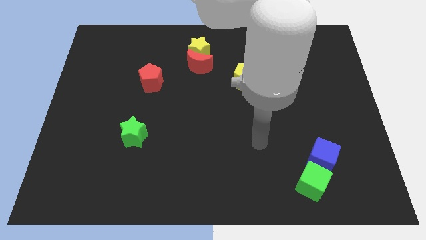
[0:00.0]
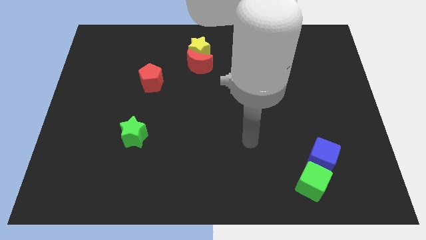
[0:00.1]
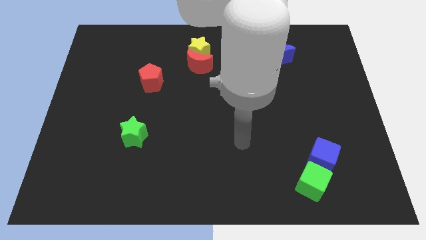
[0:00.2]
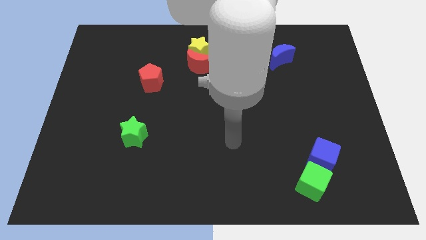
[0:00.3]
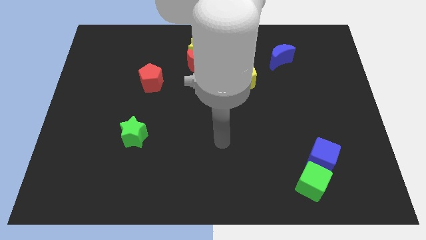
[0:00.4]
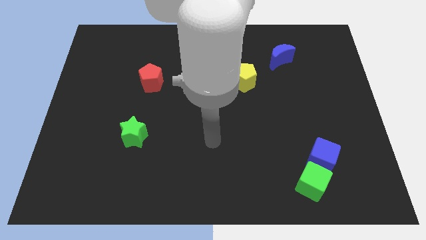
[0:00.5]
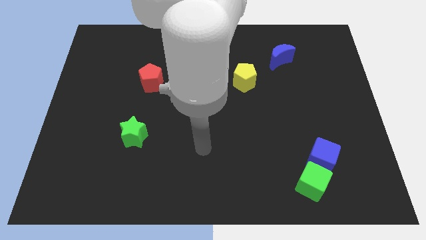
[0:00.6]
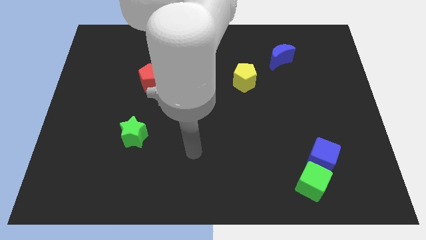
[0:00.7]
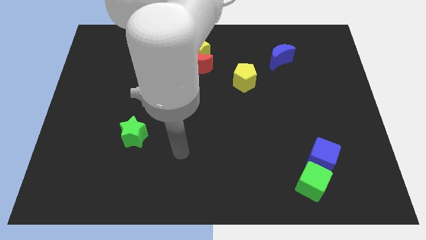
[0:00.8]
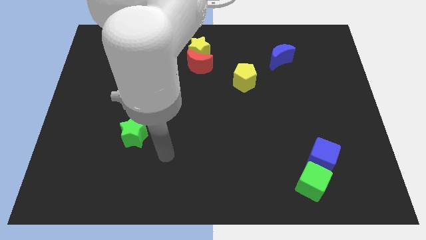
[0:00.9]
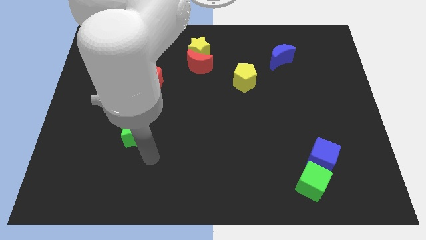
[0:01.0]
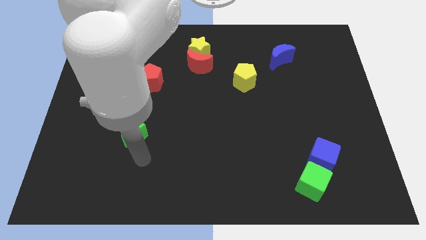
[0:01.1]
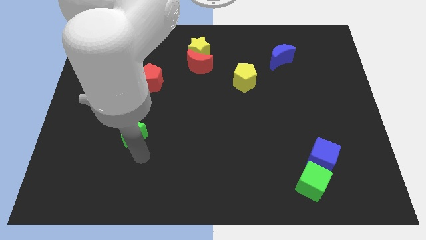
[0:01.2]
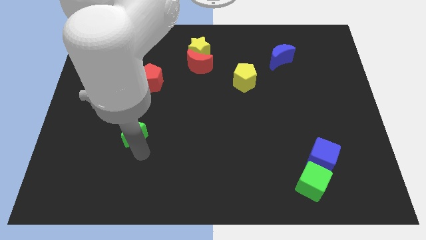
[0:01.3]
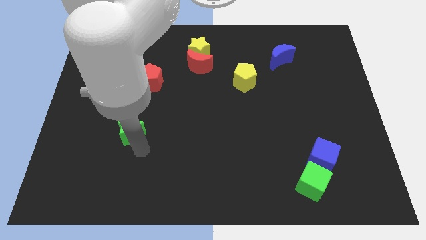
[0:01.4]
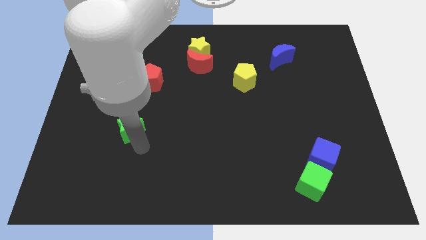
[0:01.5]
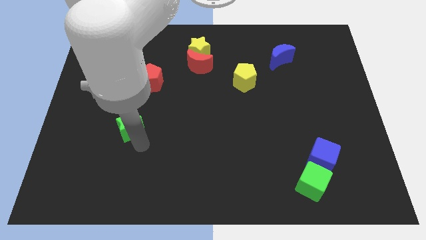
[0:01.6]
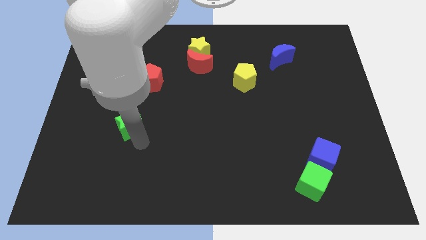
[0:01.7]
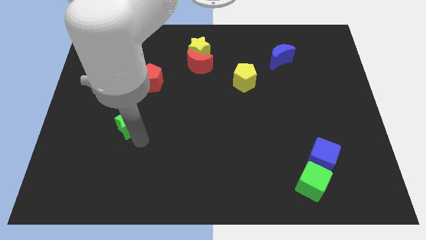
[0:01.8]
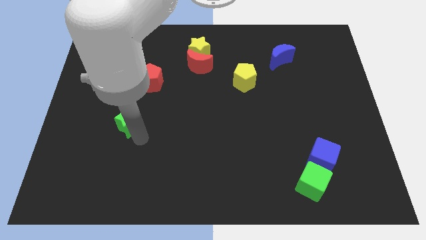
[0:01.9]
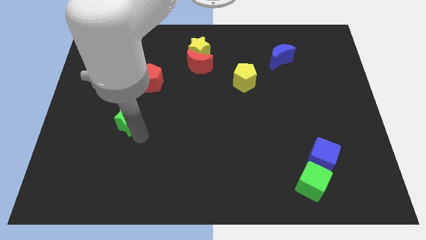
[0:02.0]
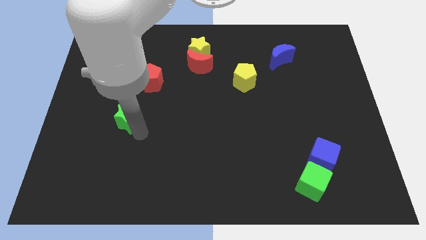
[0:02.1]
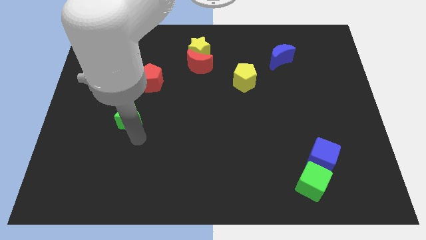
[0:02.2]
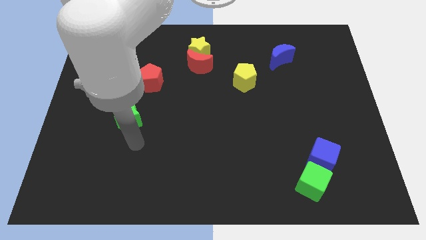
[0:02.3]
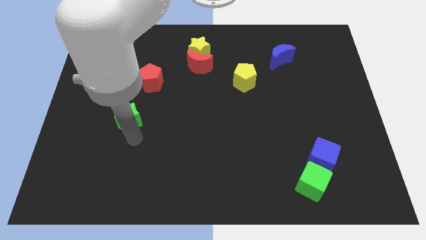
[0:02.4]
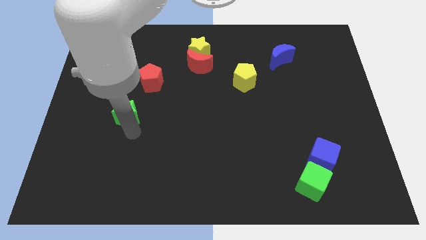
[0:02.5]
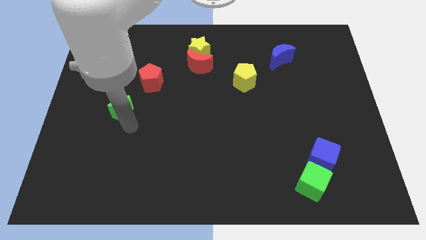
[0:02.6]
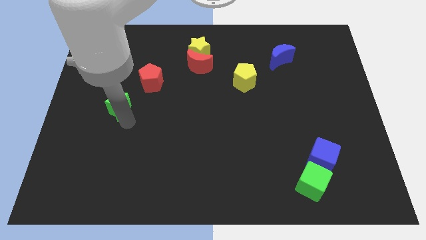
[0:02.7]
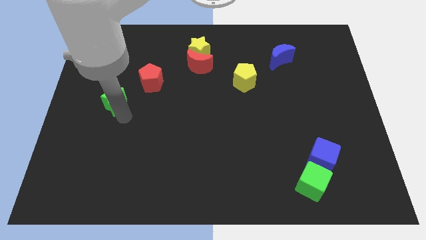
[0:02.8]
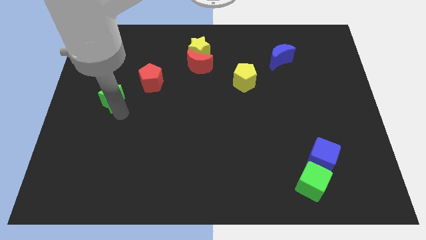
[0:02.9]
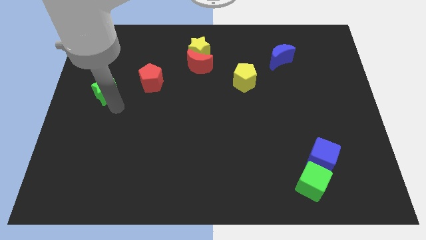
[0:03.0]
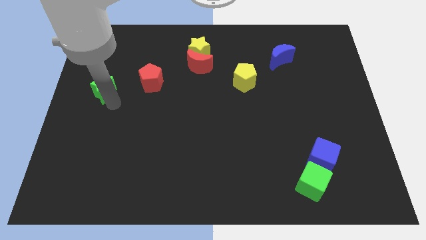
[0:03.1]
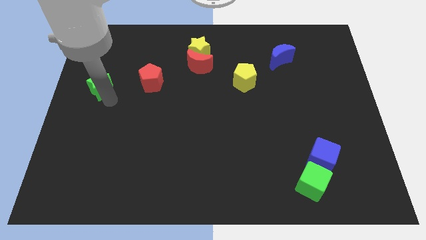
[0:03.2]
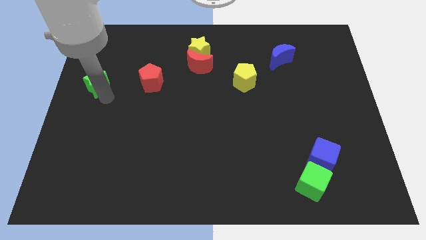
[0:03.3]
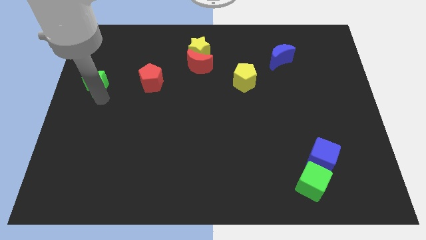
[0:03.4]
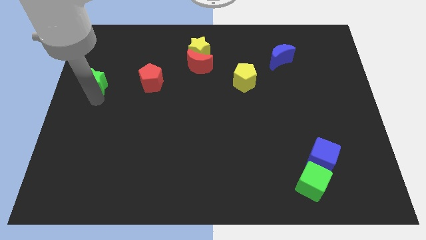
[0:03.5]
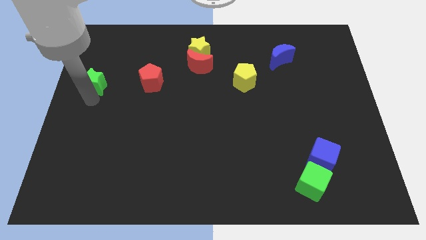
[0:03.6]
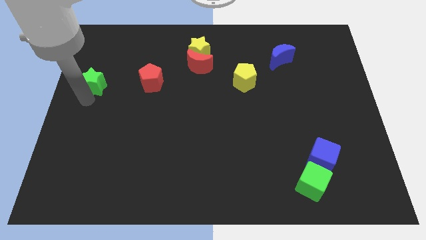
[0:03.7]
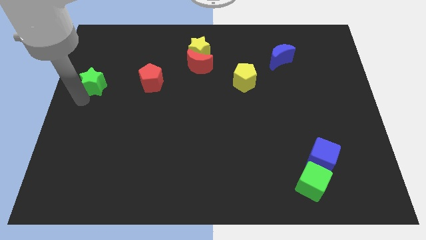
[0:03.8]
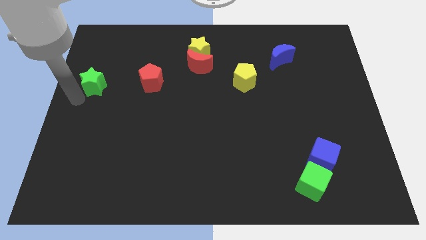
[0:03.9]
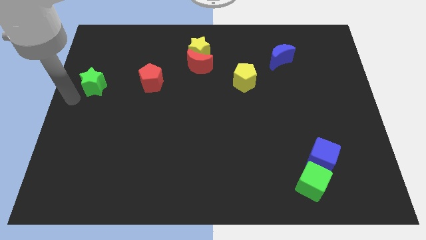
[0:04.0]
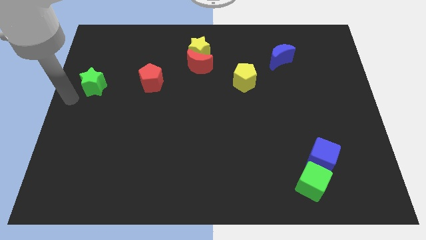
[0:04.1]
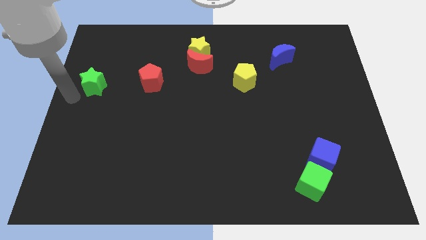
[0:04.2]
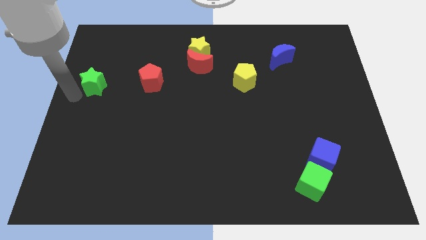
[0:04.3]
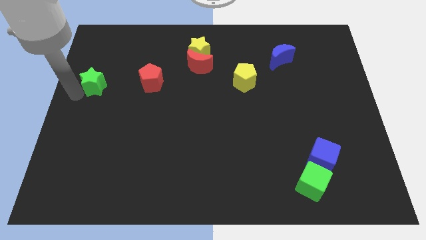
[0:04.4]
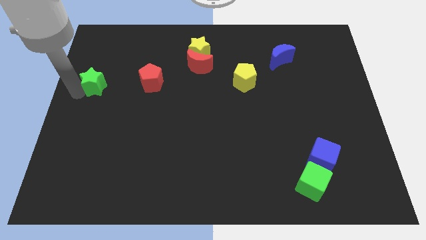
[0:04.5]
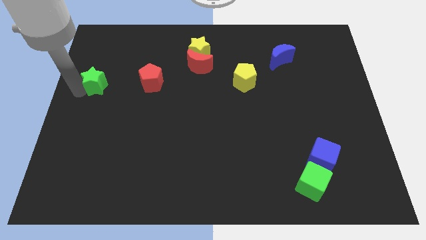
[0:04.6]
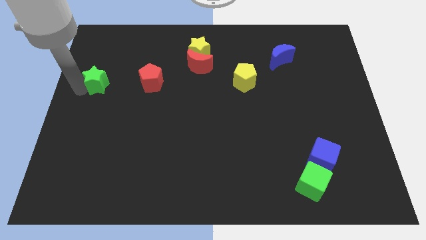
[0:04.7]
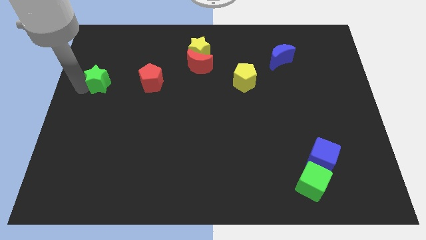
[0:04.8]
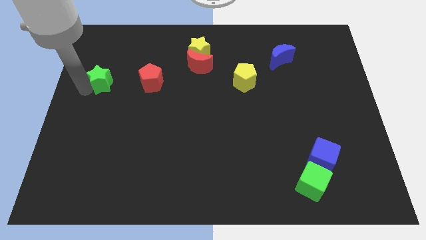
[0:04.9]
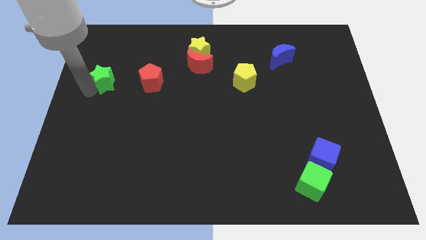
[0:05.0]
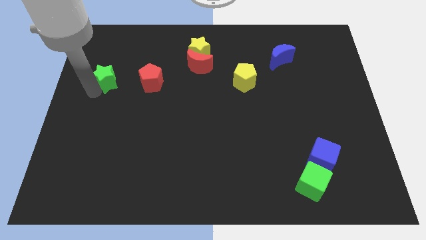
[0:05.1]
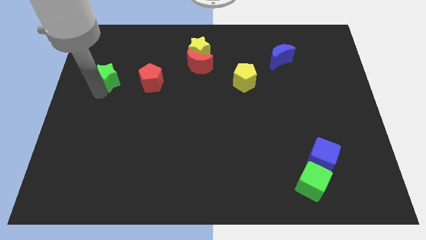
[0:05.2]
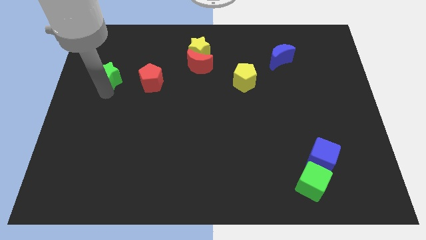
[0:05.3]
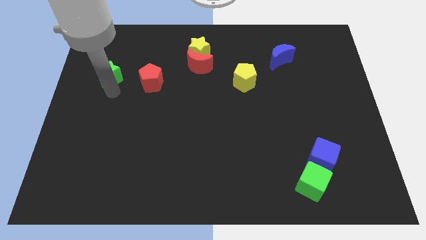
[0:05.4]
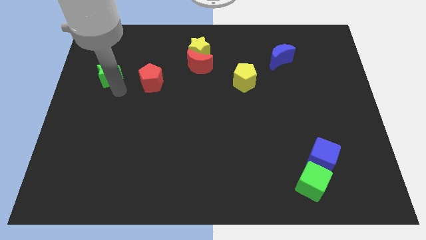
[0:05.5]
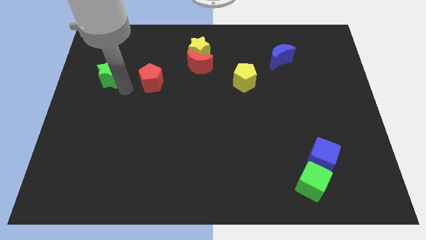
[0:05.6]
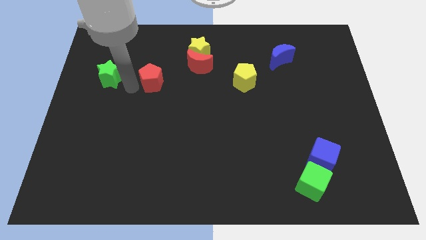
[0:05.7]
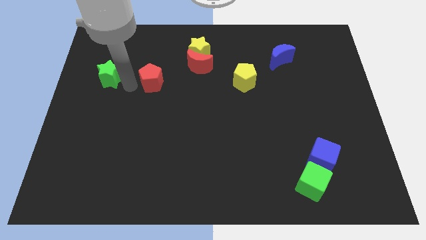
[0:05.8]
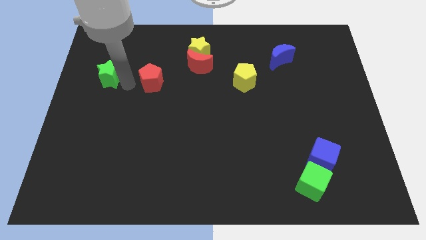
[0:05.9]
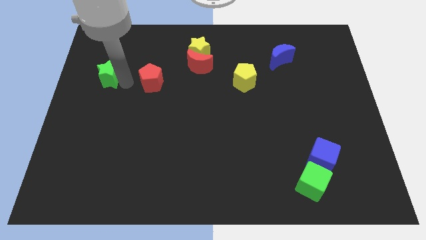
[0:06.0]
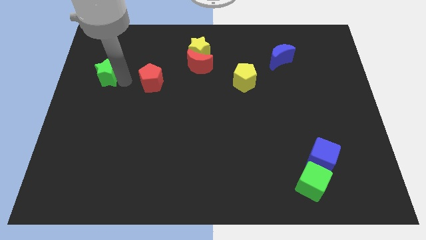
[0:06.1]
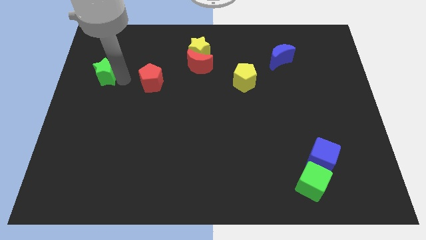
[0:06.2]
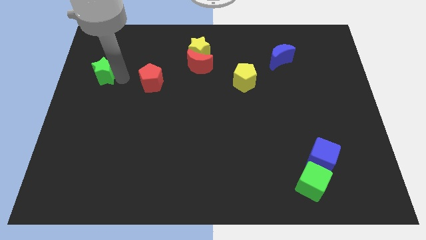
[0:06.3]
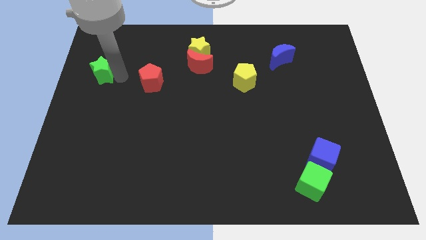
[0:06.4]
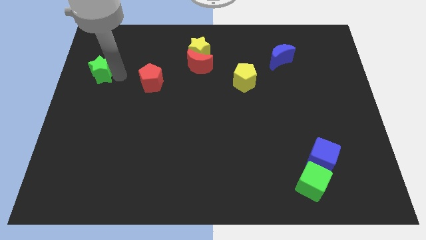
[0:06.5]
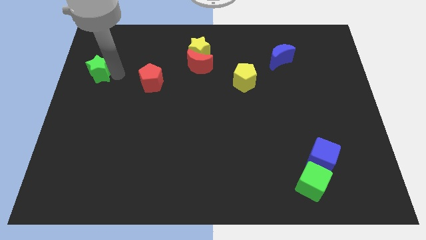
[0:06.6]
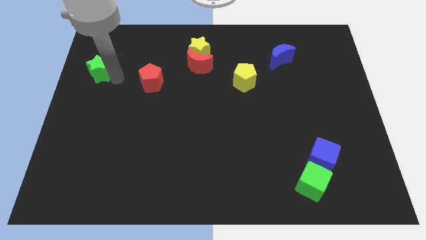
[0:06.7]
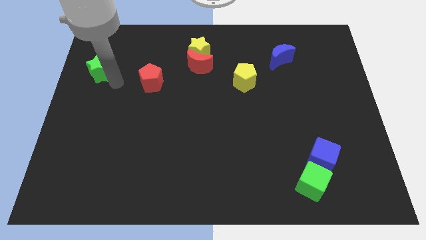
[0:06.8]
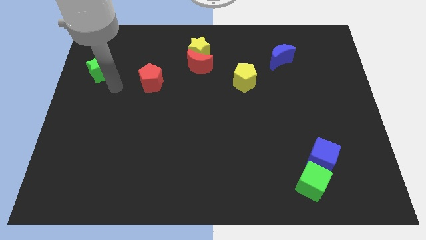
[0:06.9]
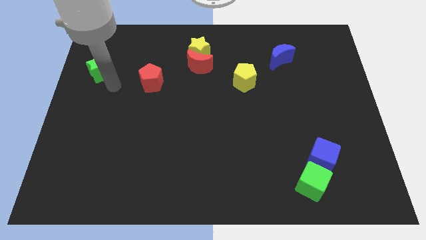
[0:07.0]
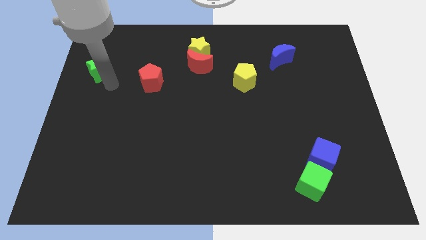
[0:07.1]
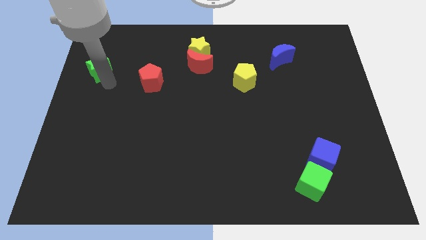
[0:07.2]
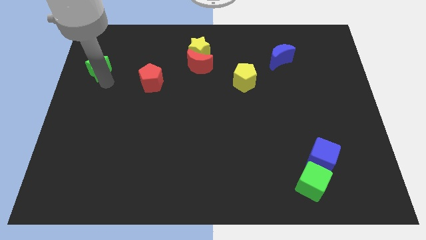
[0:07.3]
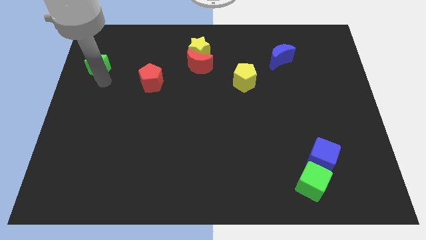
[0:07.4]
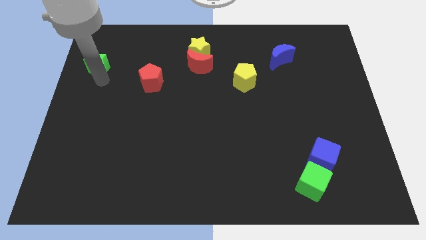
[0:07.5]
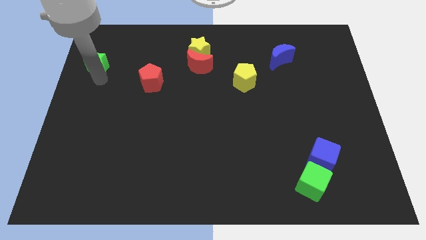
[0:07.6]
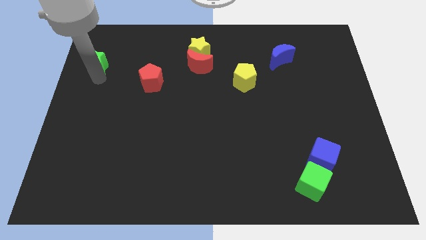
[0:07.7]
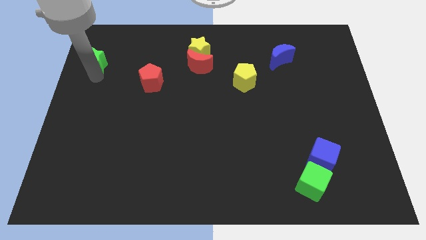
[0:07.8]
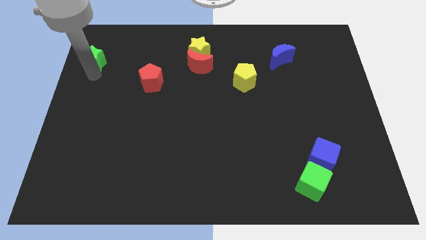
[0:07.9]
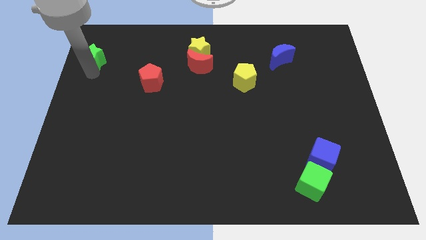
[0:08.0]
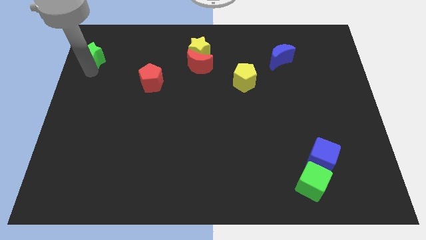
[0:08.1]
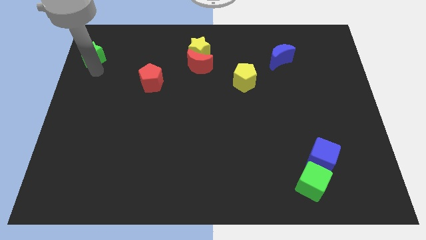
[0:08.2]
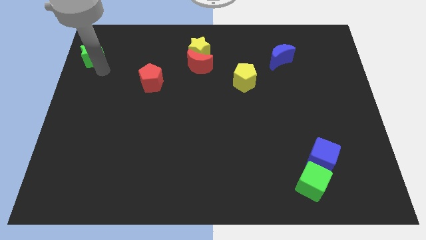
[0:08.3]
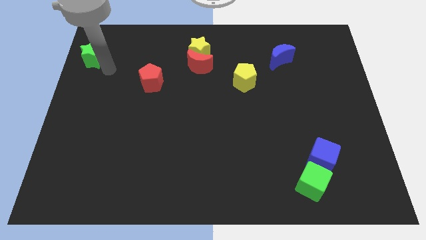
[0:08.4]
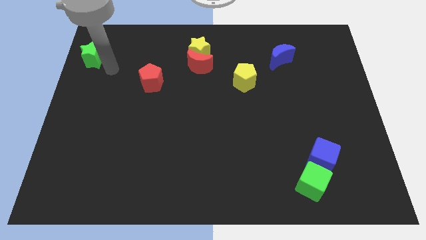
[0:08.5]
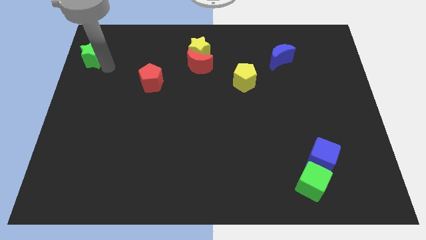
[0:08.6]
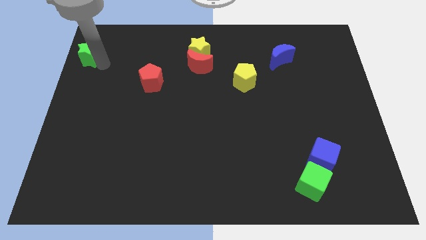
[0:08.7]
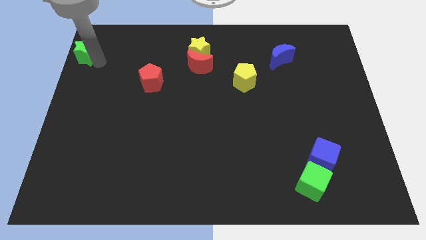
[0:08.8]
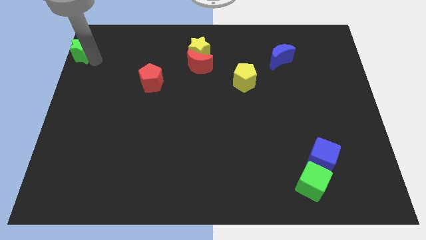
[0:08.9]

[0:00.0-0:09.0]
move the green star to the top left corner
